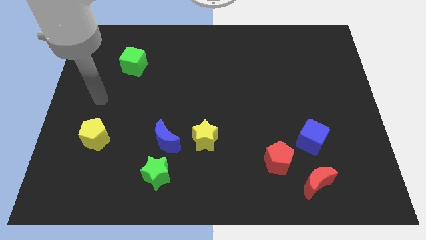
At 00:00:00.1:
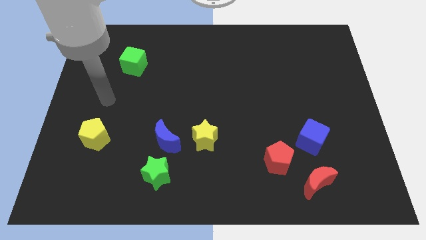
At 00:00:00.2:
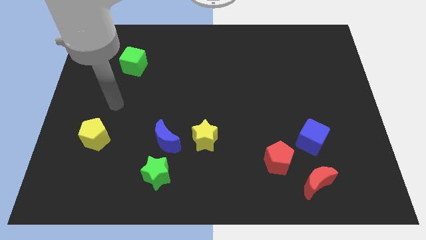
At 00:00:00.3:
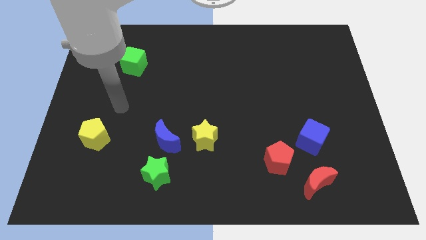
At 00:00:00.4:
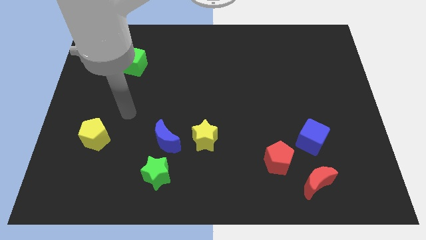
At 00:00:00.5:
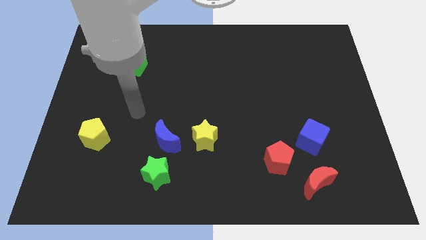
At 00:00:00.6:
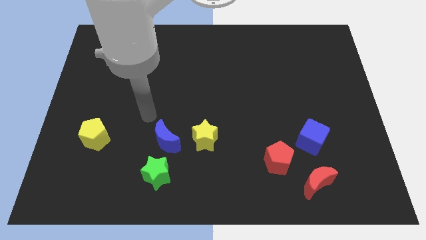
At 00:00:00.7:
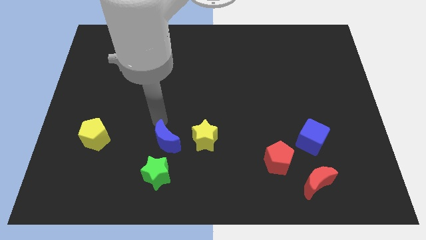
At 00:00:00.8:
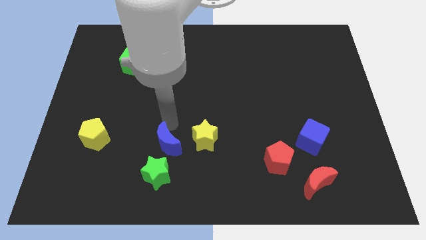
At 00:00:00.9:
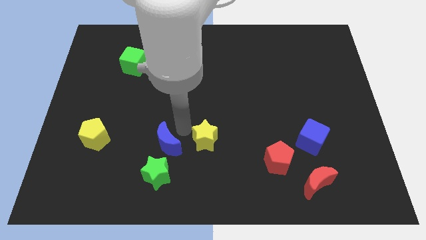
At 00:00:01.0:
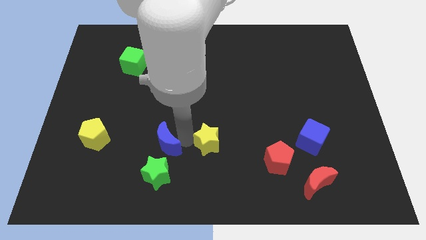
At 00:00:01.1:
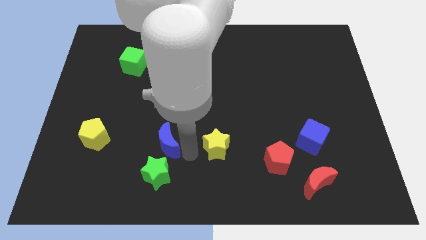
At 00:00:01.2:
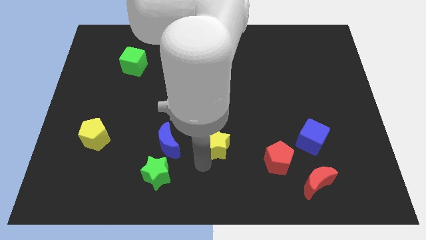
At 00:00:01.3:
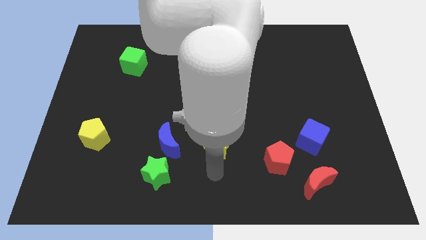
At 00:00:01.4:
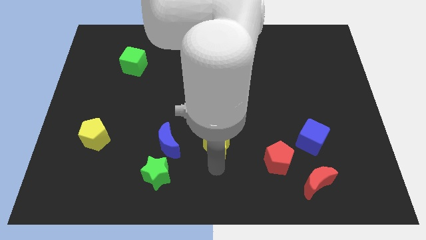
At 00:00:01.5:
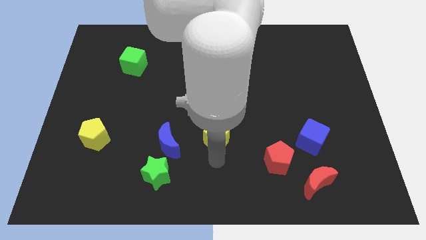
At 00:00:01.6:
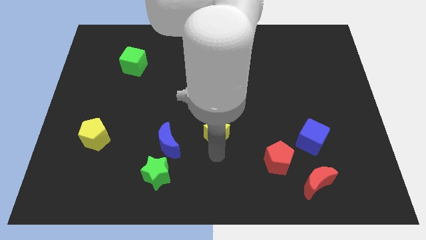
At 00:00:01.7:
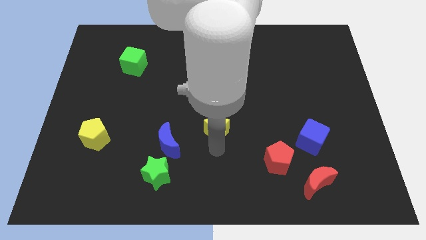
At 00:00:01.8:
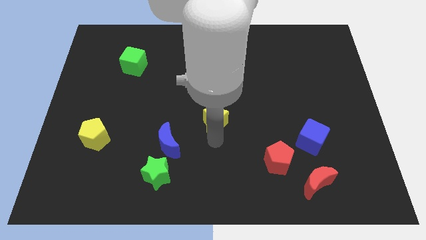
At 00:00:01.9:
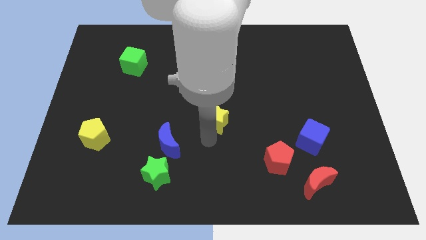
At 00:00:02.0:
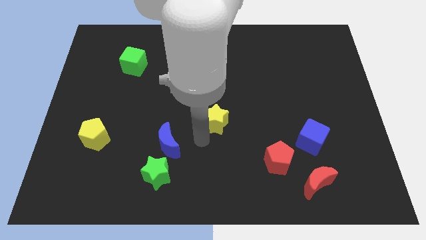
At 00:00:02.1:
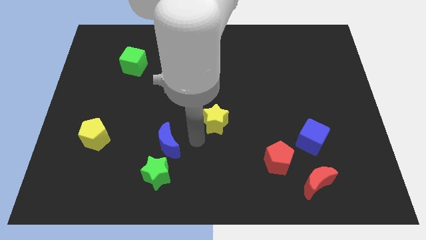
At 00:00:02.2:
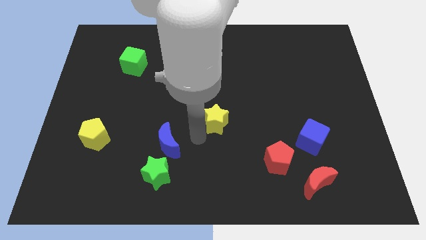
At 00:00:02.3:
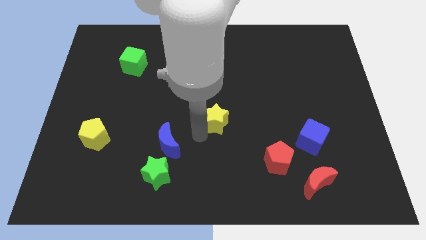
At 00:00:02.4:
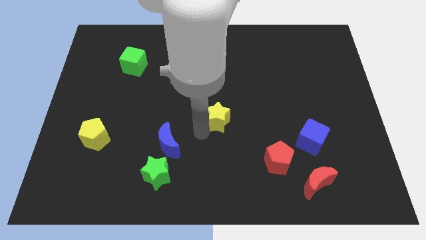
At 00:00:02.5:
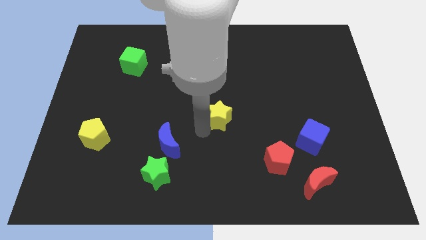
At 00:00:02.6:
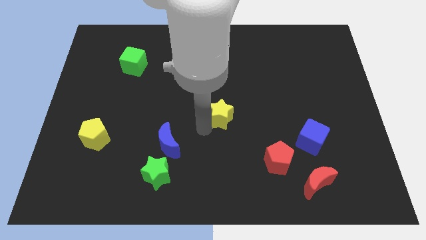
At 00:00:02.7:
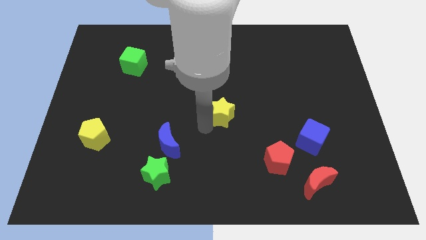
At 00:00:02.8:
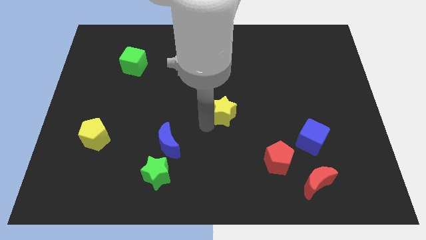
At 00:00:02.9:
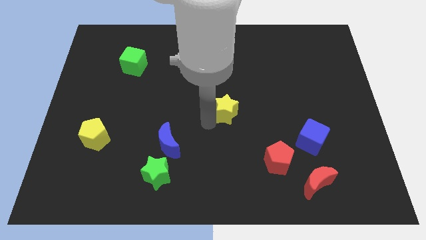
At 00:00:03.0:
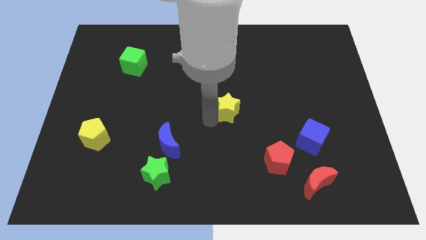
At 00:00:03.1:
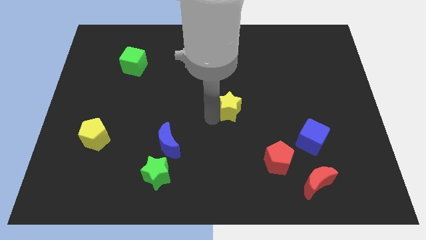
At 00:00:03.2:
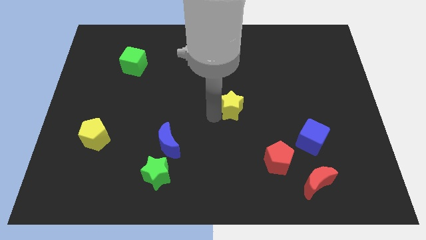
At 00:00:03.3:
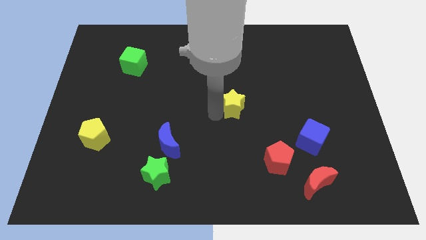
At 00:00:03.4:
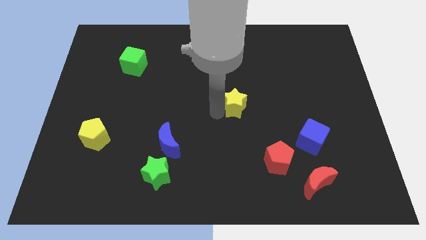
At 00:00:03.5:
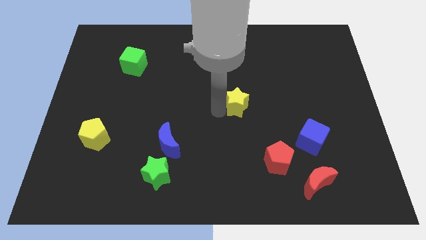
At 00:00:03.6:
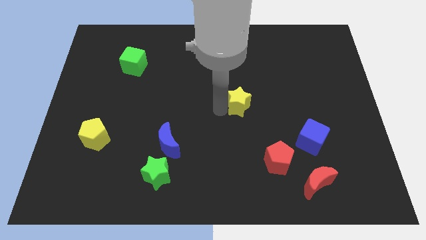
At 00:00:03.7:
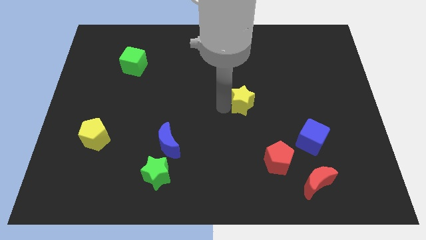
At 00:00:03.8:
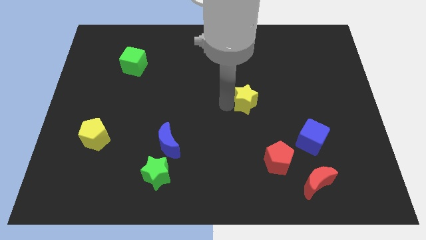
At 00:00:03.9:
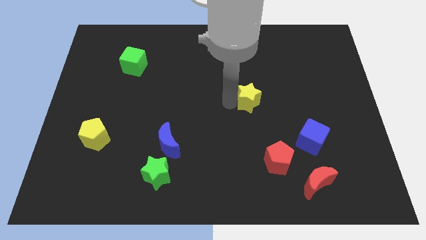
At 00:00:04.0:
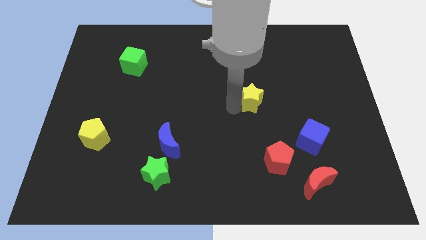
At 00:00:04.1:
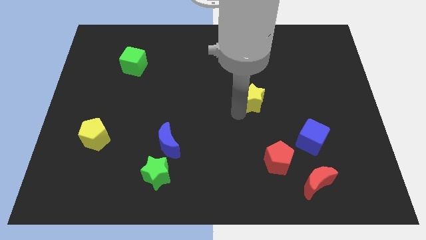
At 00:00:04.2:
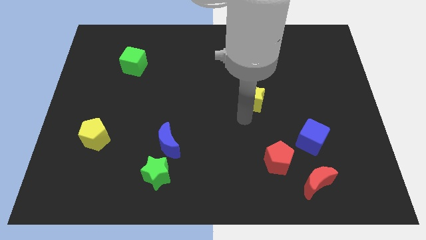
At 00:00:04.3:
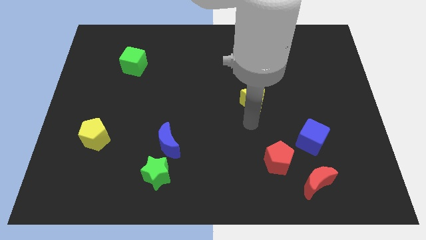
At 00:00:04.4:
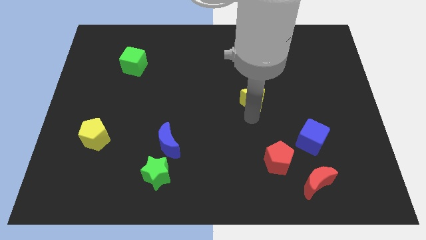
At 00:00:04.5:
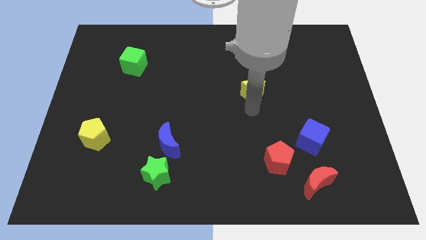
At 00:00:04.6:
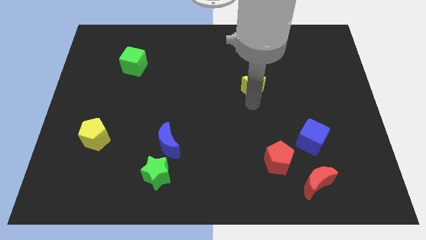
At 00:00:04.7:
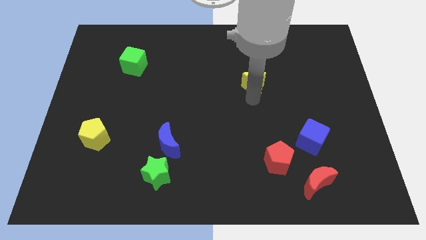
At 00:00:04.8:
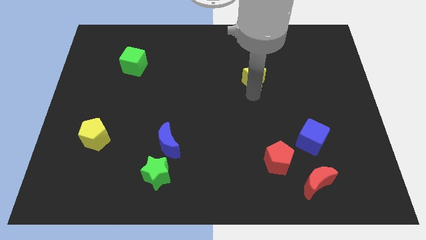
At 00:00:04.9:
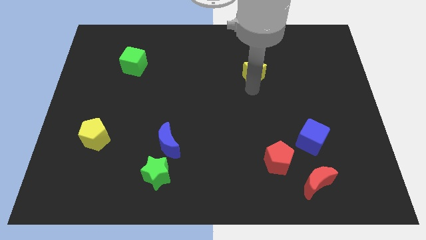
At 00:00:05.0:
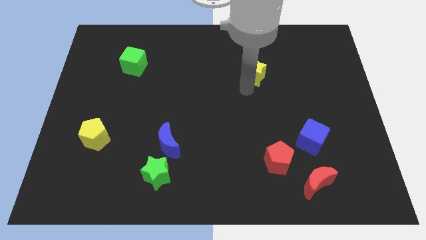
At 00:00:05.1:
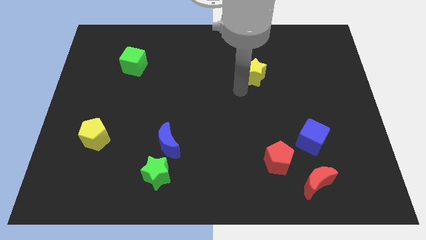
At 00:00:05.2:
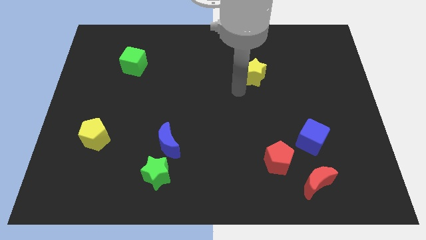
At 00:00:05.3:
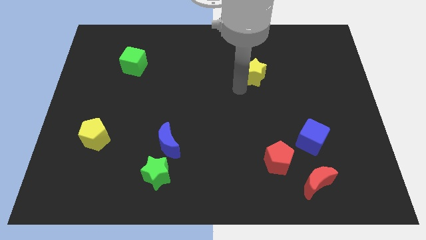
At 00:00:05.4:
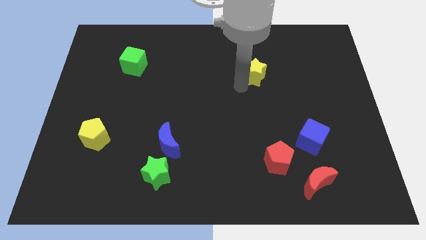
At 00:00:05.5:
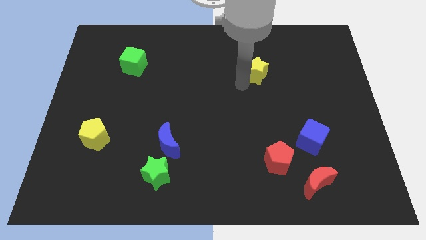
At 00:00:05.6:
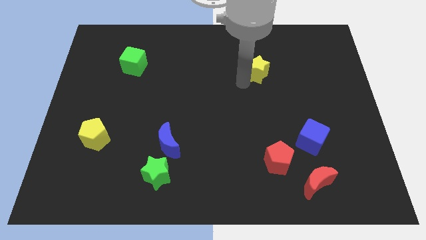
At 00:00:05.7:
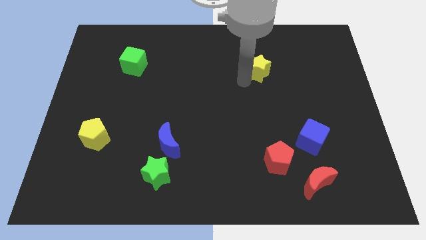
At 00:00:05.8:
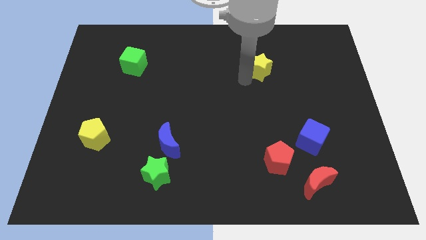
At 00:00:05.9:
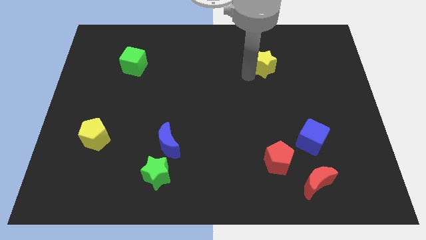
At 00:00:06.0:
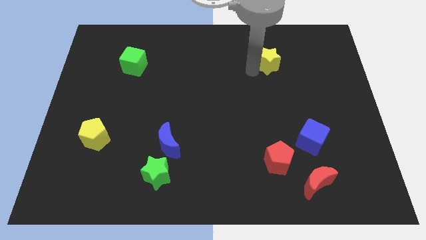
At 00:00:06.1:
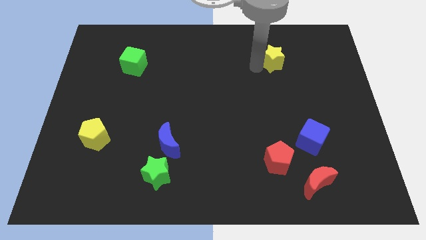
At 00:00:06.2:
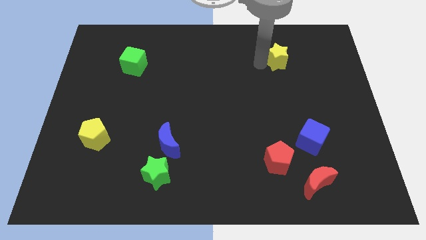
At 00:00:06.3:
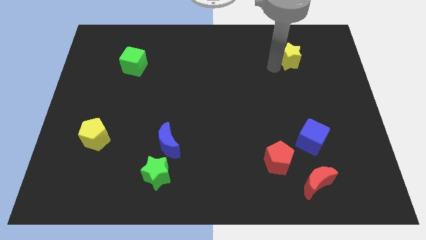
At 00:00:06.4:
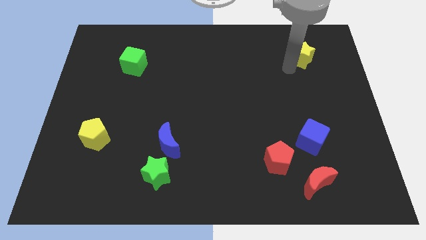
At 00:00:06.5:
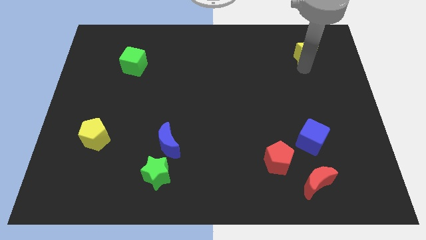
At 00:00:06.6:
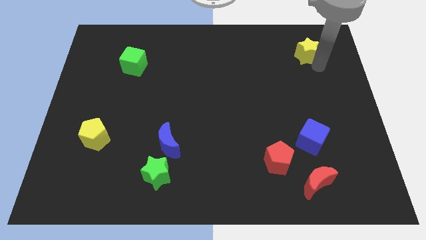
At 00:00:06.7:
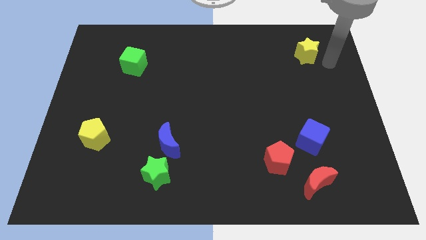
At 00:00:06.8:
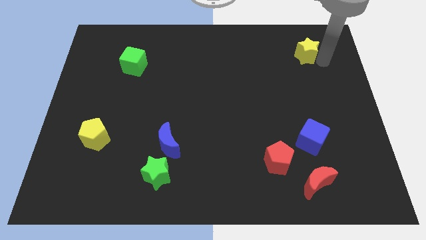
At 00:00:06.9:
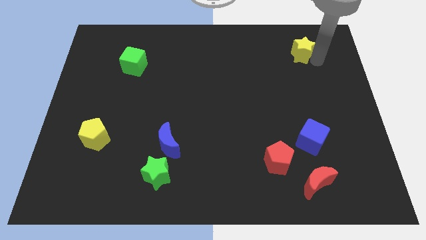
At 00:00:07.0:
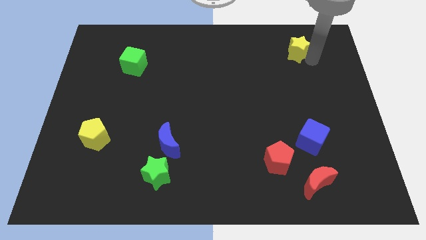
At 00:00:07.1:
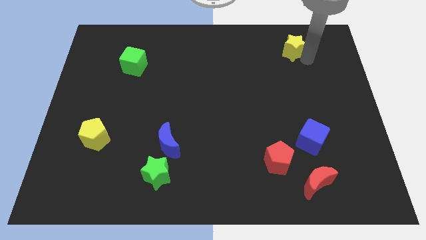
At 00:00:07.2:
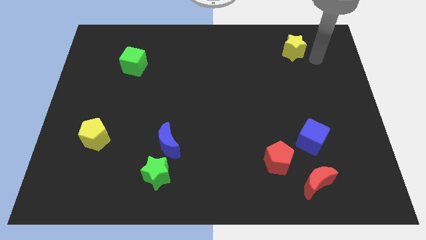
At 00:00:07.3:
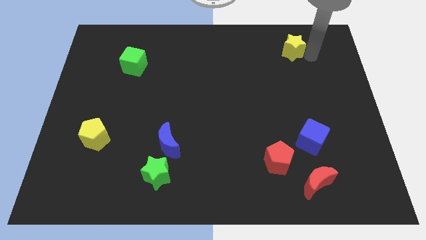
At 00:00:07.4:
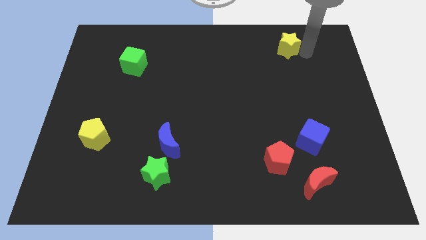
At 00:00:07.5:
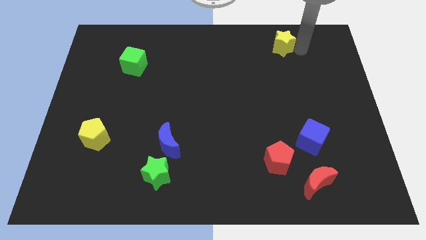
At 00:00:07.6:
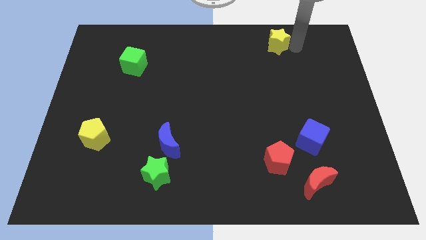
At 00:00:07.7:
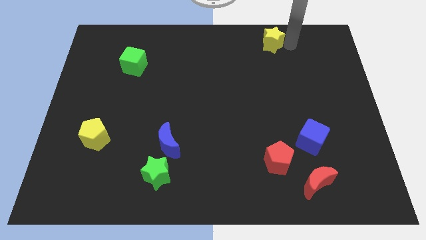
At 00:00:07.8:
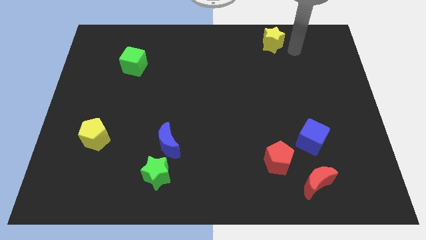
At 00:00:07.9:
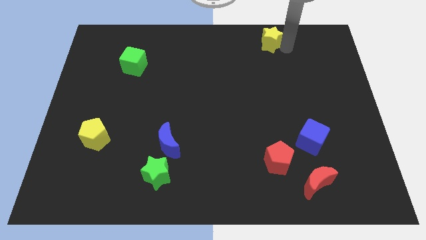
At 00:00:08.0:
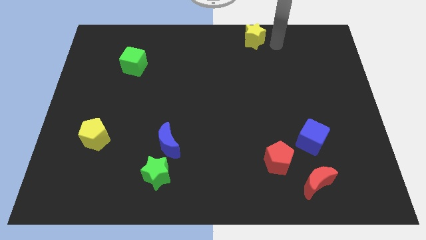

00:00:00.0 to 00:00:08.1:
slide the yellow star to the top
